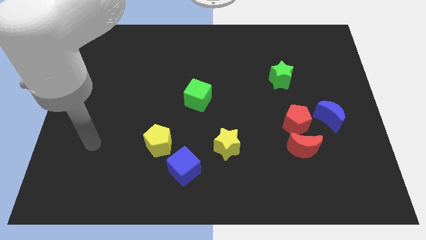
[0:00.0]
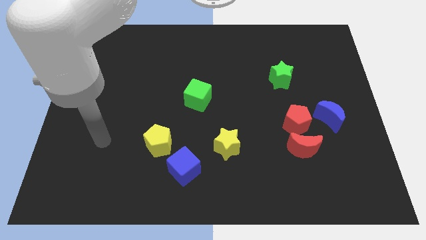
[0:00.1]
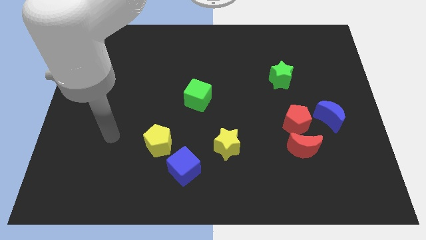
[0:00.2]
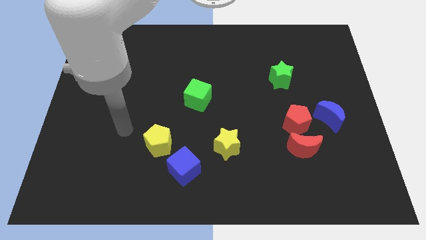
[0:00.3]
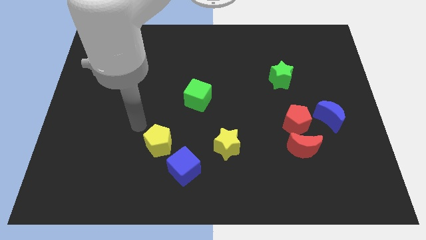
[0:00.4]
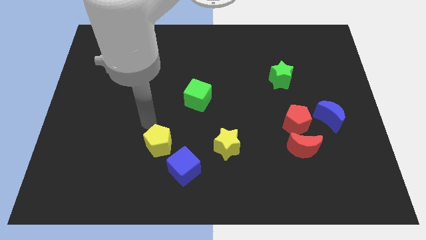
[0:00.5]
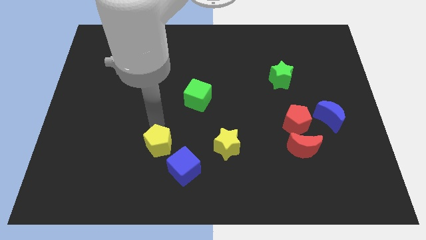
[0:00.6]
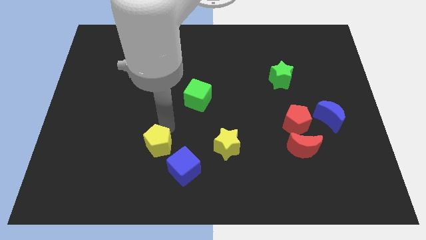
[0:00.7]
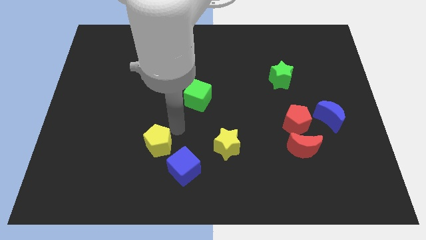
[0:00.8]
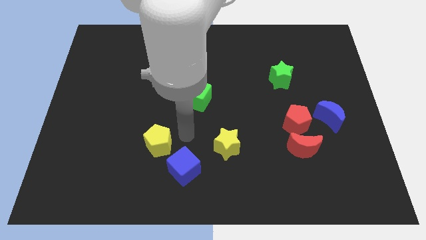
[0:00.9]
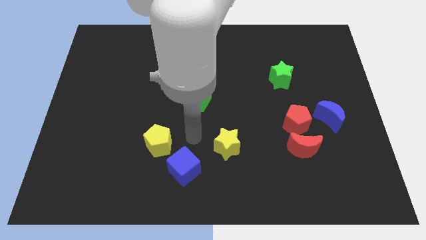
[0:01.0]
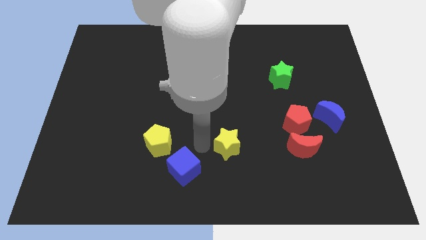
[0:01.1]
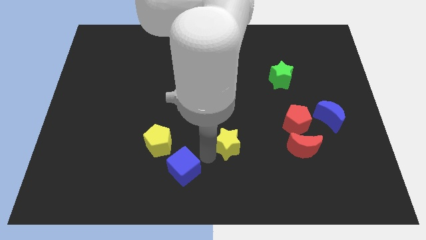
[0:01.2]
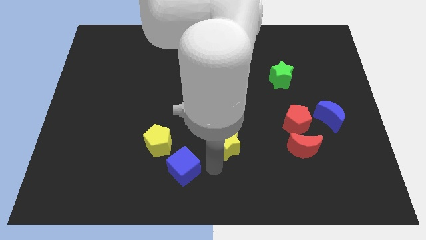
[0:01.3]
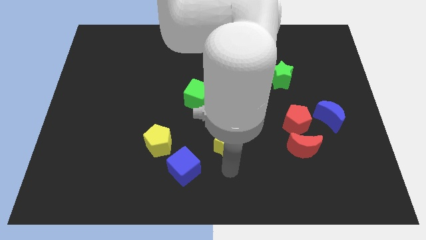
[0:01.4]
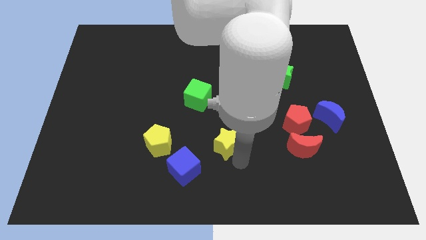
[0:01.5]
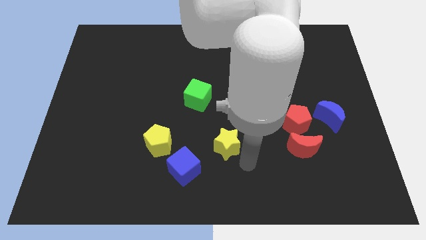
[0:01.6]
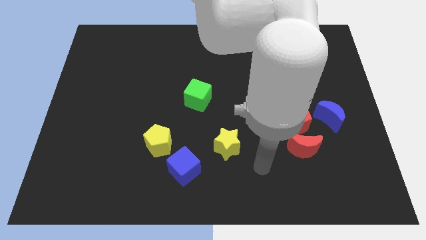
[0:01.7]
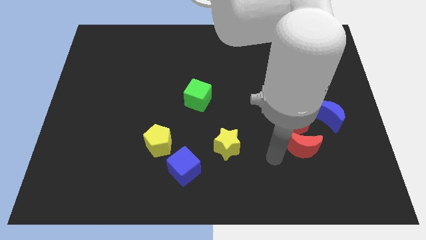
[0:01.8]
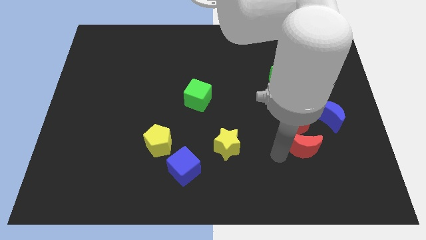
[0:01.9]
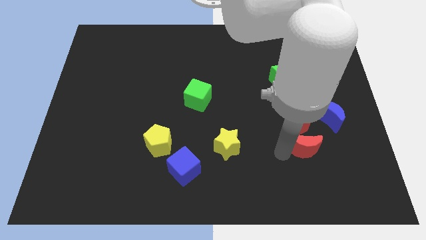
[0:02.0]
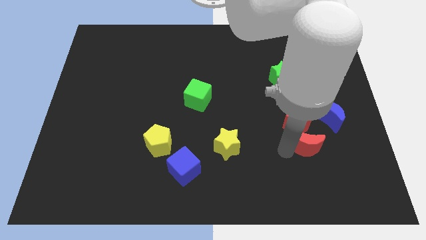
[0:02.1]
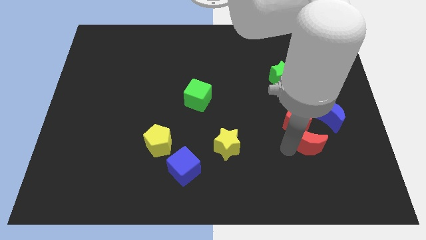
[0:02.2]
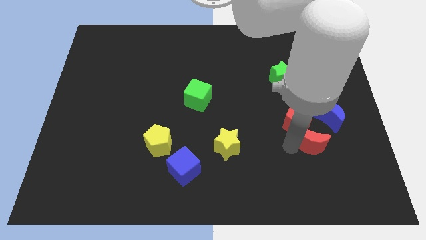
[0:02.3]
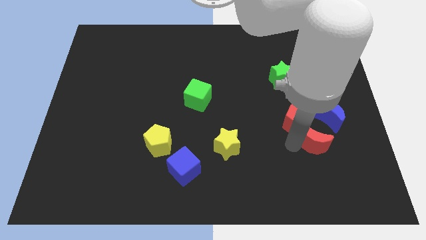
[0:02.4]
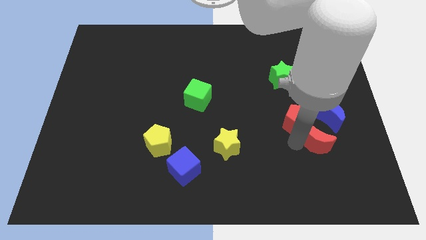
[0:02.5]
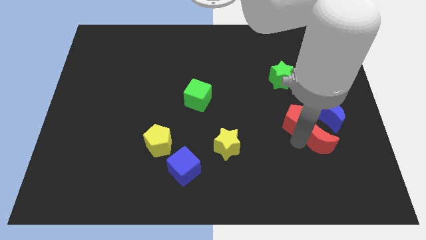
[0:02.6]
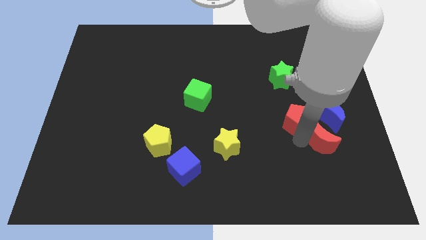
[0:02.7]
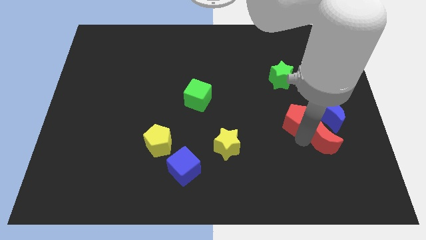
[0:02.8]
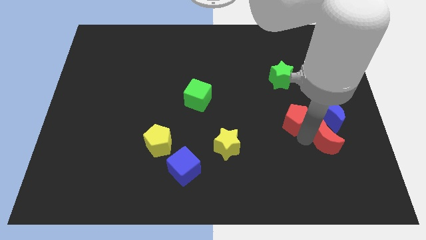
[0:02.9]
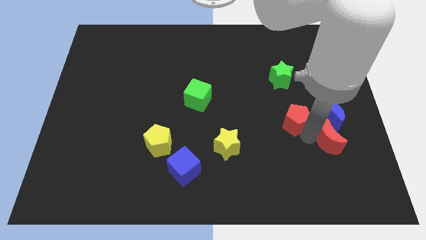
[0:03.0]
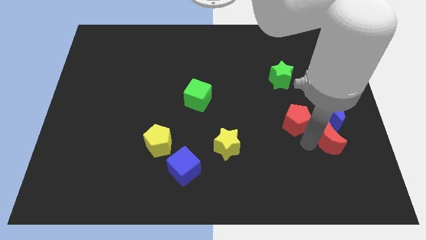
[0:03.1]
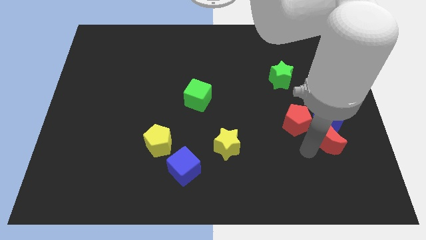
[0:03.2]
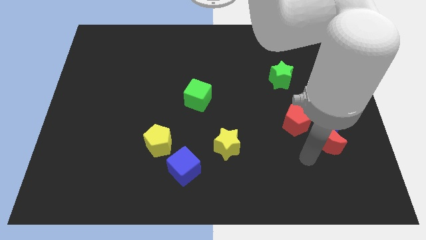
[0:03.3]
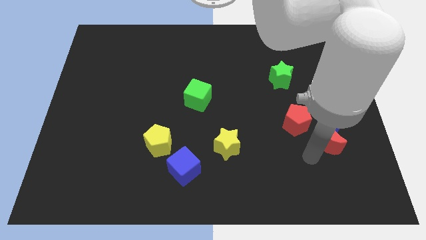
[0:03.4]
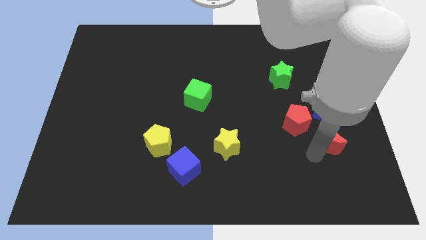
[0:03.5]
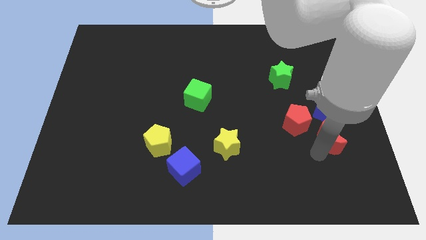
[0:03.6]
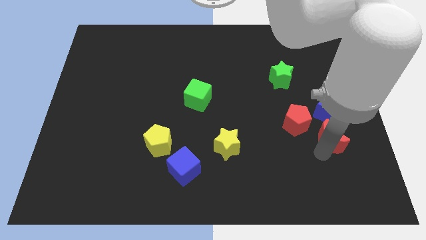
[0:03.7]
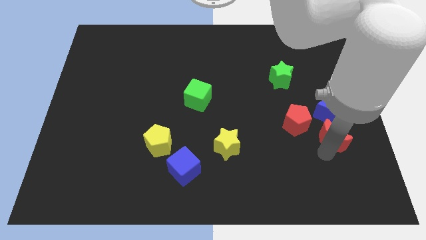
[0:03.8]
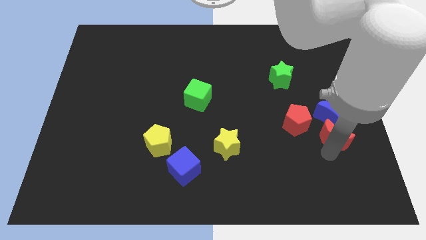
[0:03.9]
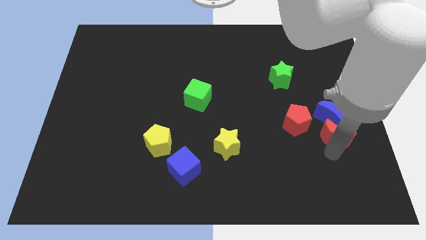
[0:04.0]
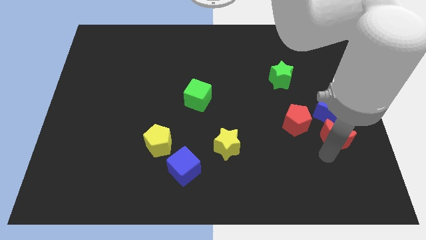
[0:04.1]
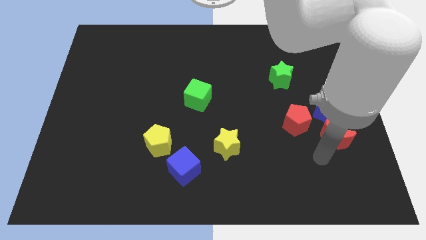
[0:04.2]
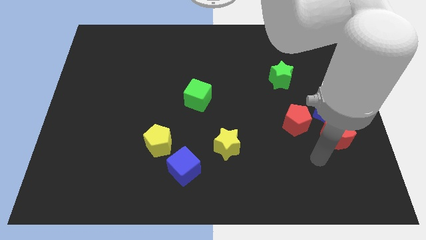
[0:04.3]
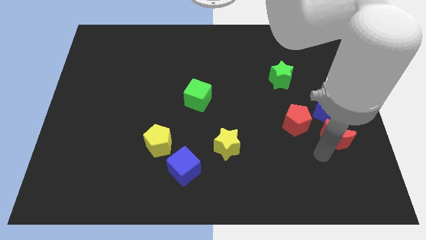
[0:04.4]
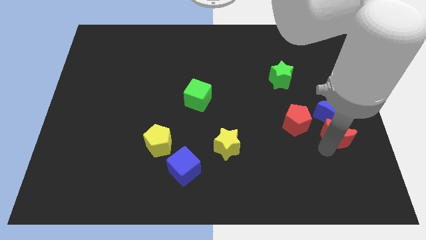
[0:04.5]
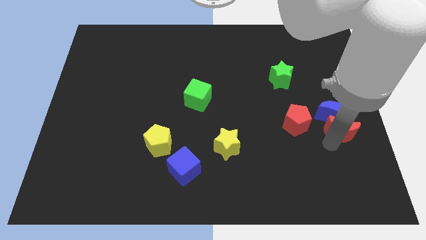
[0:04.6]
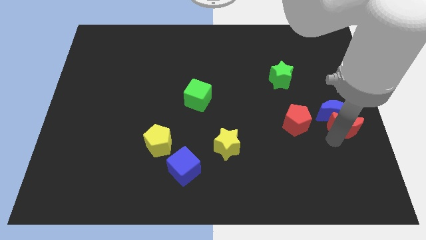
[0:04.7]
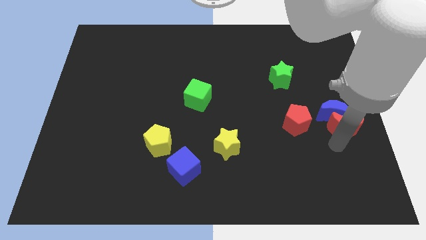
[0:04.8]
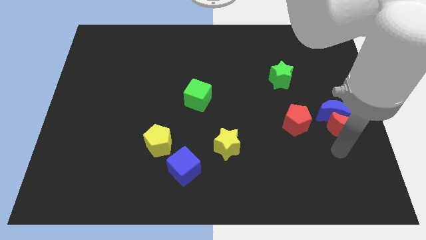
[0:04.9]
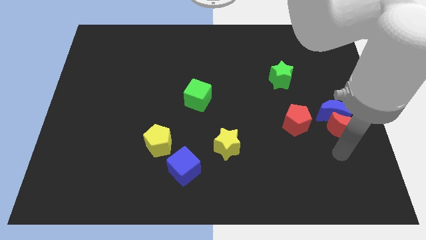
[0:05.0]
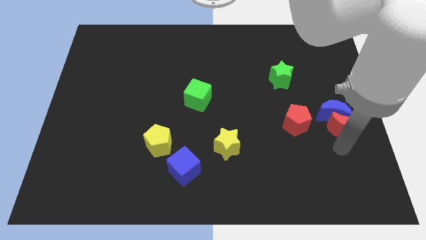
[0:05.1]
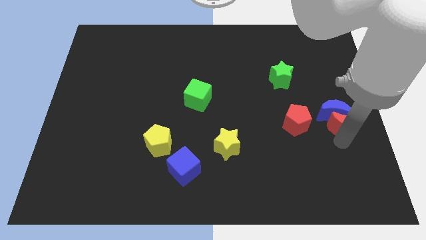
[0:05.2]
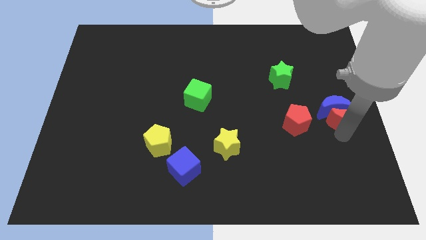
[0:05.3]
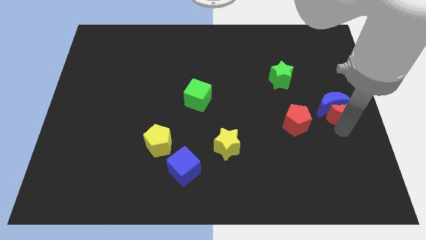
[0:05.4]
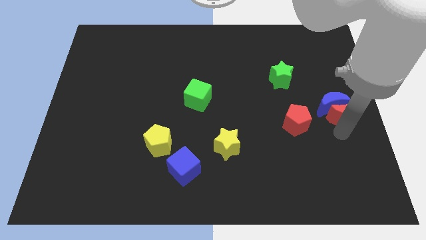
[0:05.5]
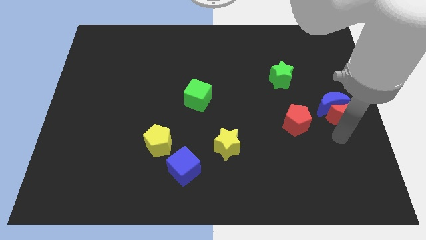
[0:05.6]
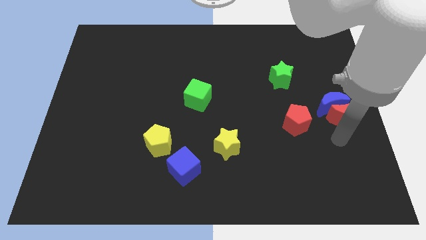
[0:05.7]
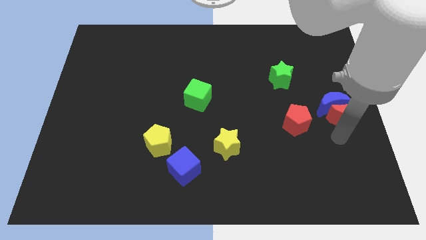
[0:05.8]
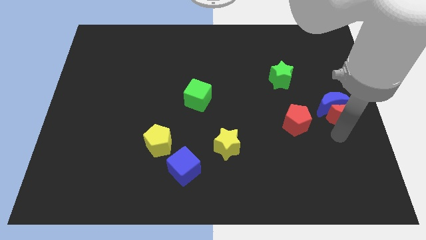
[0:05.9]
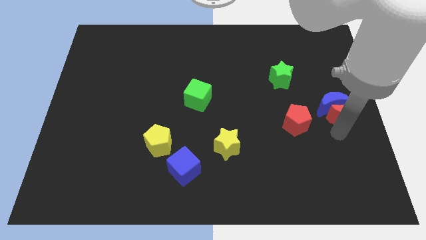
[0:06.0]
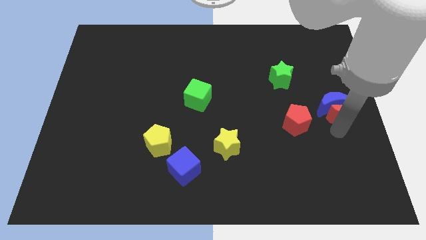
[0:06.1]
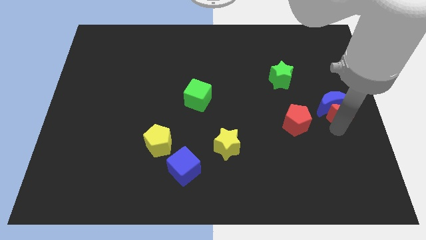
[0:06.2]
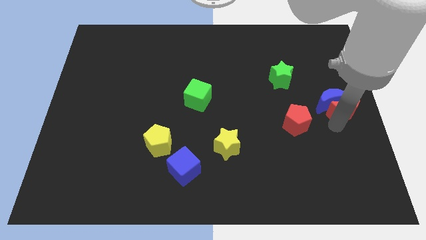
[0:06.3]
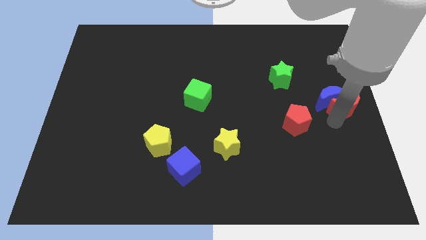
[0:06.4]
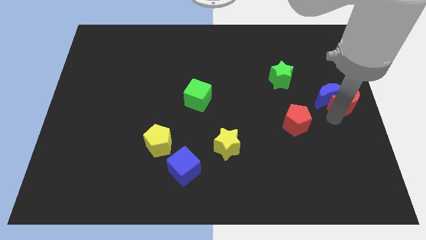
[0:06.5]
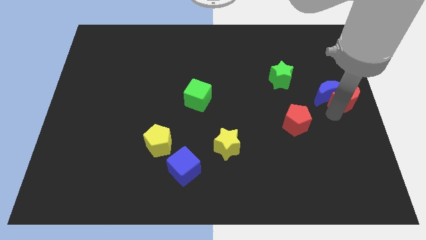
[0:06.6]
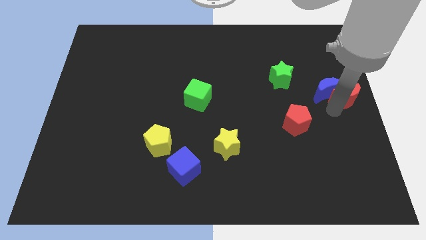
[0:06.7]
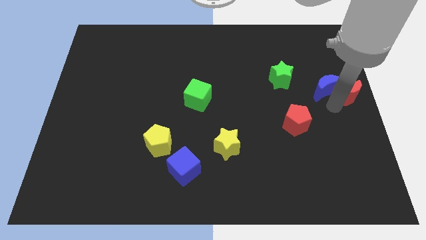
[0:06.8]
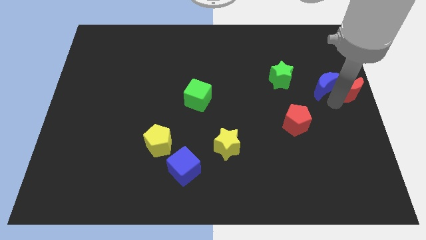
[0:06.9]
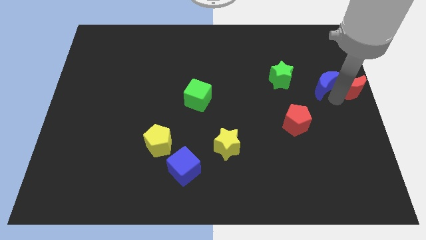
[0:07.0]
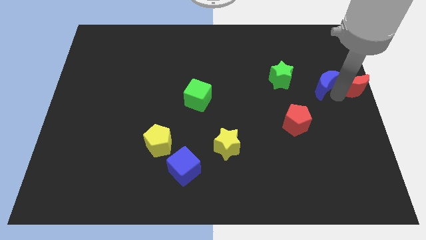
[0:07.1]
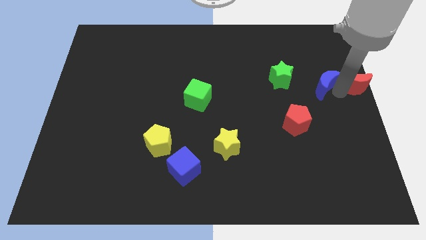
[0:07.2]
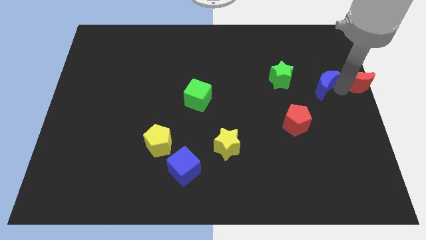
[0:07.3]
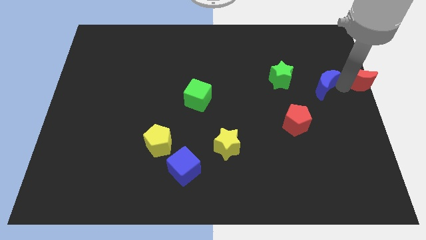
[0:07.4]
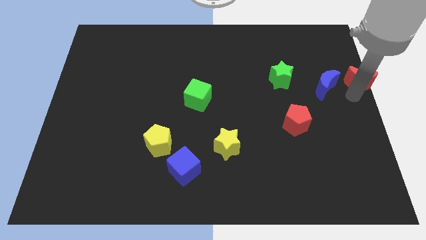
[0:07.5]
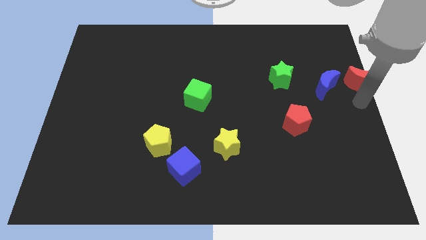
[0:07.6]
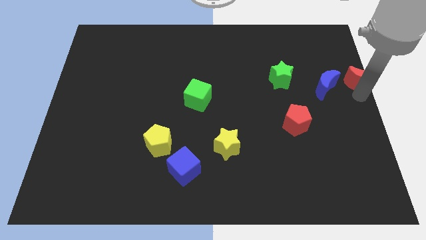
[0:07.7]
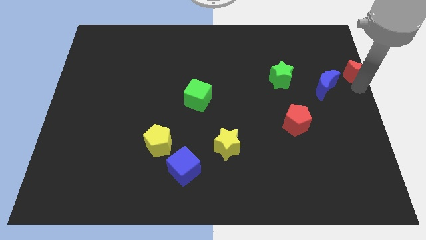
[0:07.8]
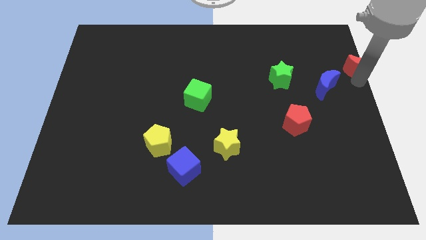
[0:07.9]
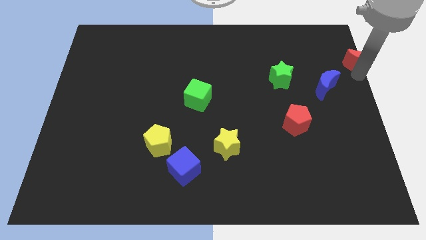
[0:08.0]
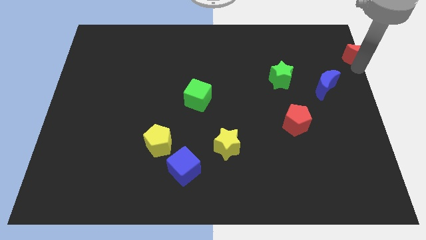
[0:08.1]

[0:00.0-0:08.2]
put the red moon to the upper right corner
